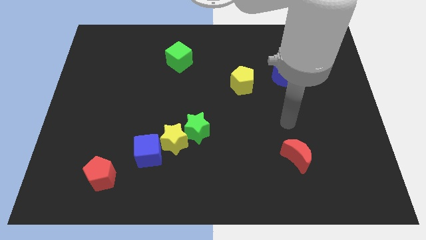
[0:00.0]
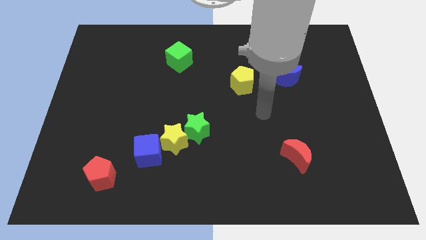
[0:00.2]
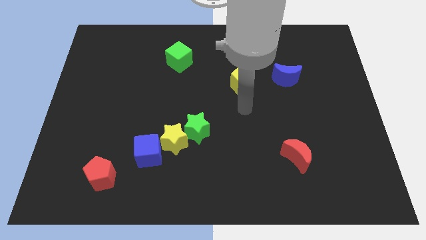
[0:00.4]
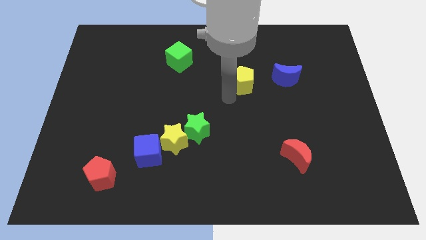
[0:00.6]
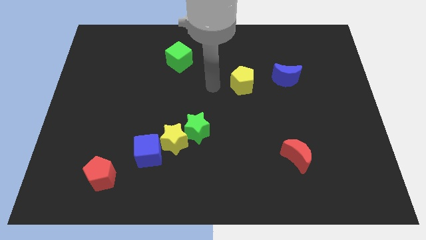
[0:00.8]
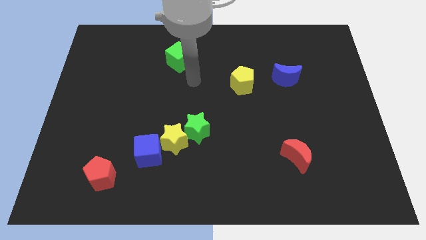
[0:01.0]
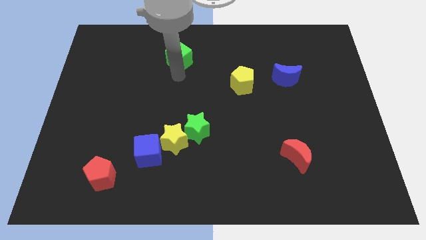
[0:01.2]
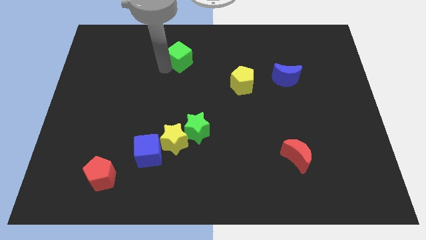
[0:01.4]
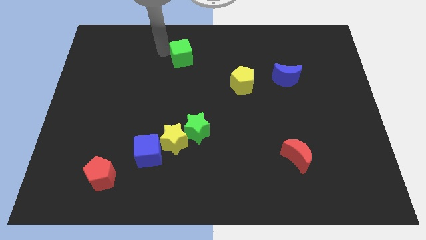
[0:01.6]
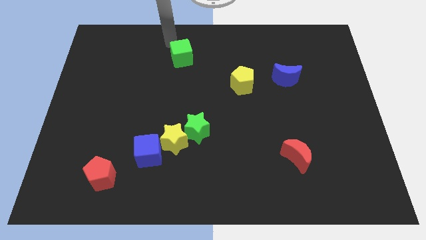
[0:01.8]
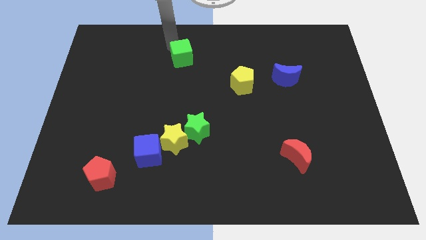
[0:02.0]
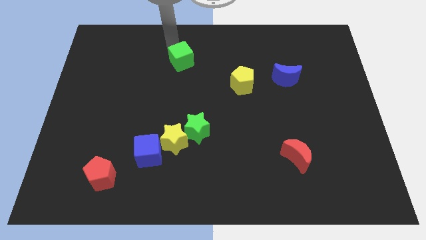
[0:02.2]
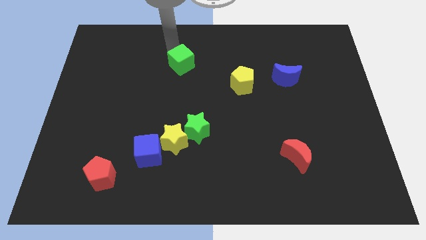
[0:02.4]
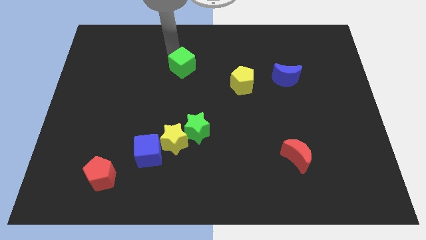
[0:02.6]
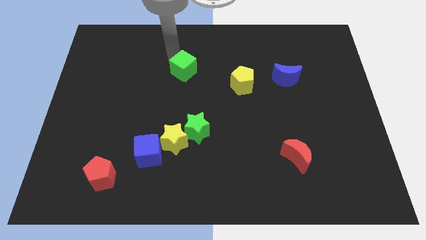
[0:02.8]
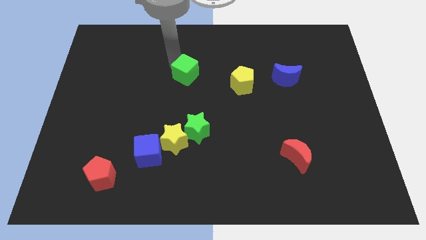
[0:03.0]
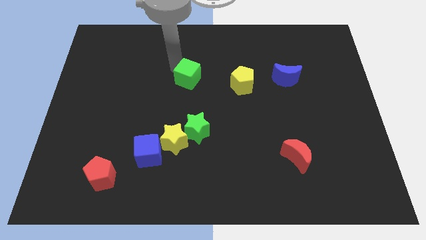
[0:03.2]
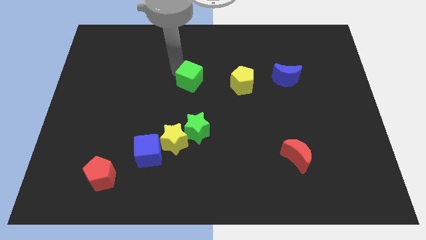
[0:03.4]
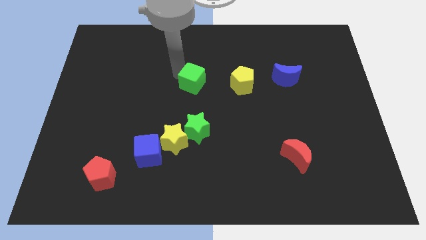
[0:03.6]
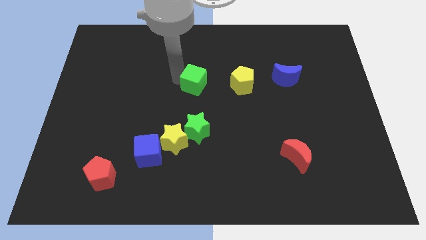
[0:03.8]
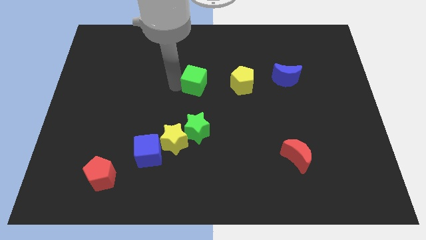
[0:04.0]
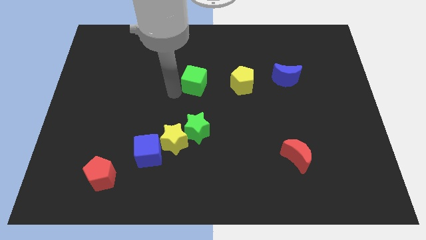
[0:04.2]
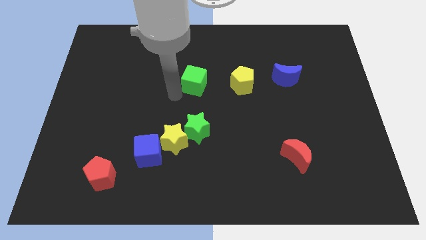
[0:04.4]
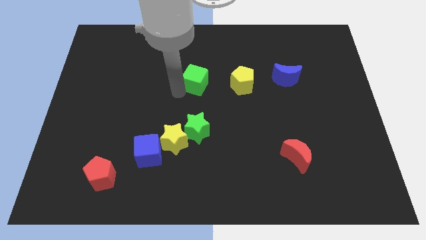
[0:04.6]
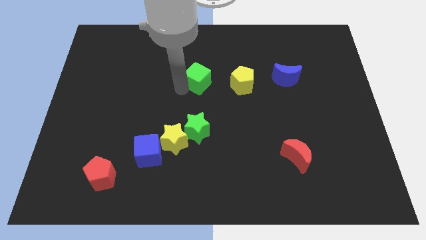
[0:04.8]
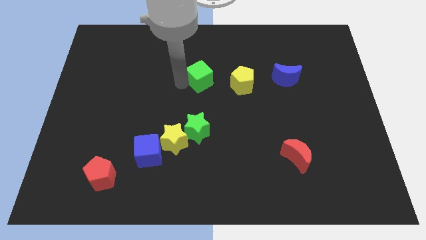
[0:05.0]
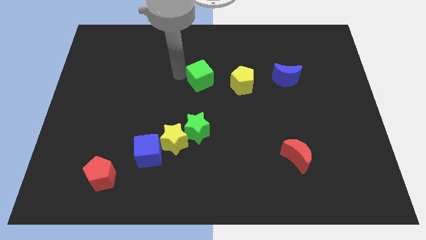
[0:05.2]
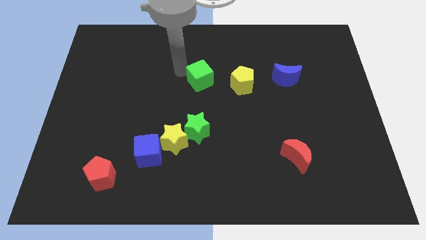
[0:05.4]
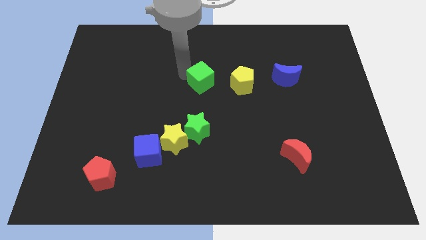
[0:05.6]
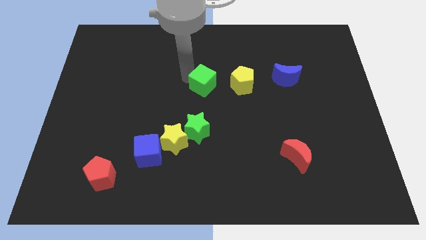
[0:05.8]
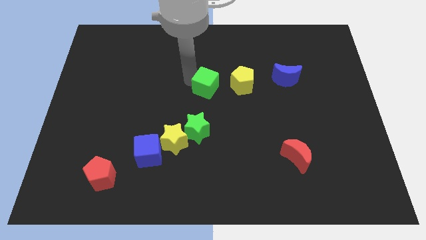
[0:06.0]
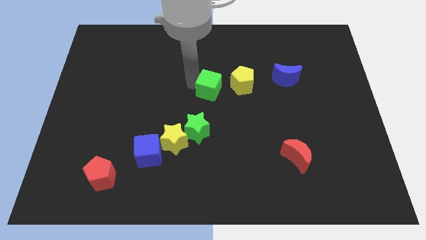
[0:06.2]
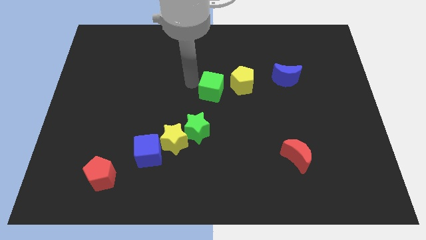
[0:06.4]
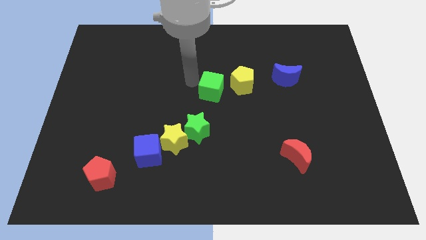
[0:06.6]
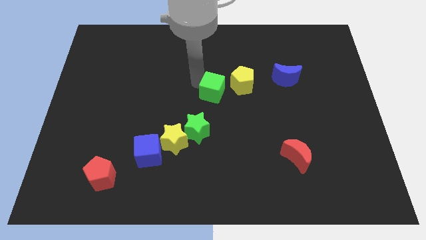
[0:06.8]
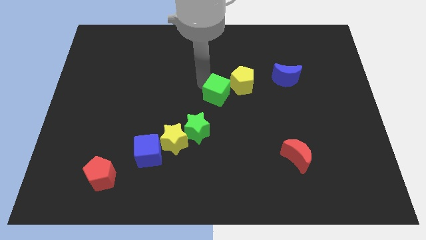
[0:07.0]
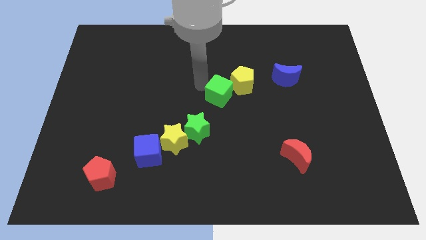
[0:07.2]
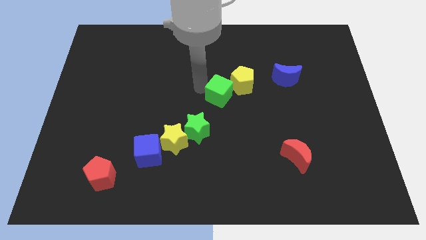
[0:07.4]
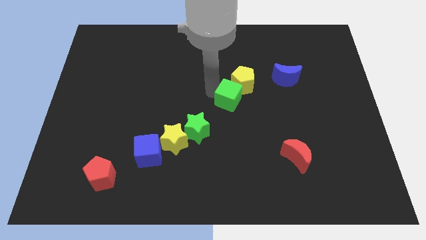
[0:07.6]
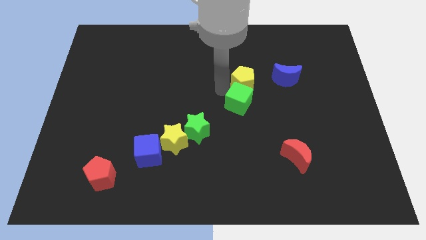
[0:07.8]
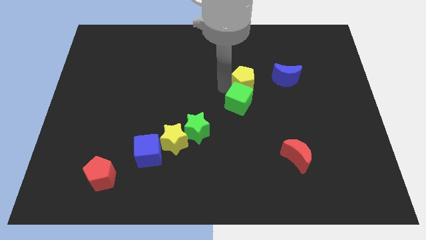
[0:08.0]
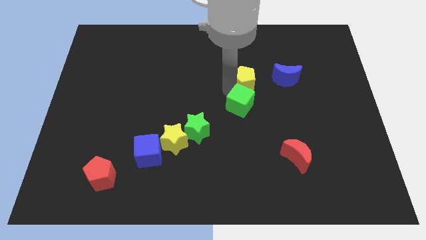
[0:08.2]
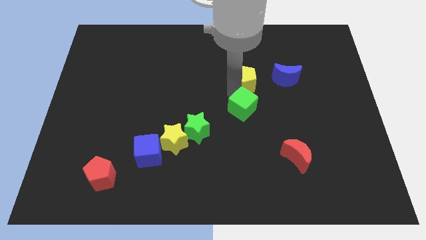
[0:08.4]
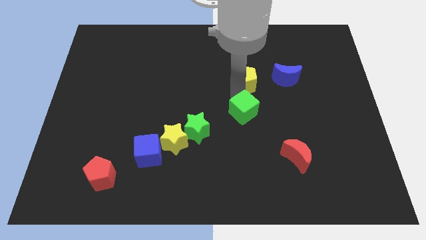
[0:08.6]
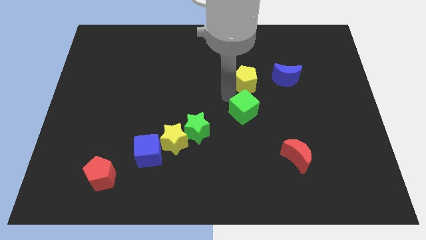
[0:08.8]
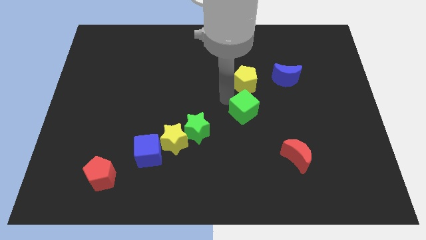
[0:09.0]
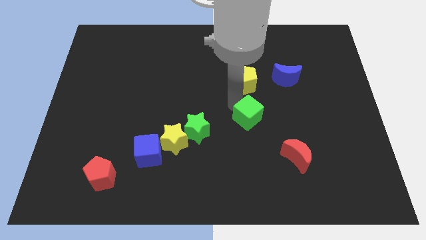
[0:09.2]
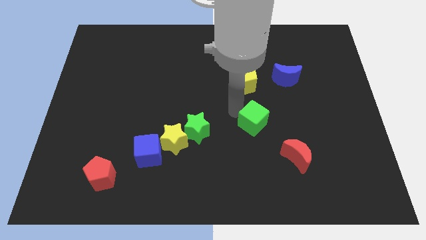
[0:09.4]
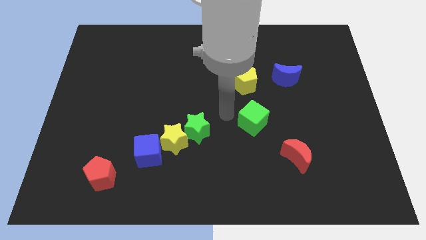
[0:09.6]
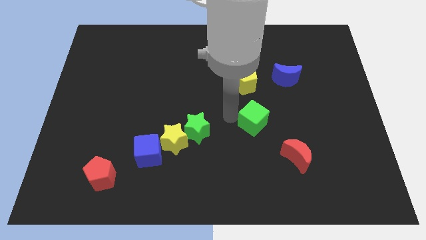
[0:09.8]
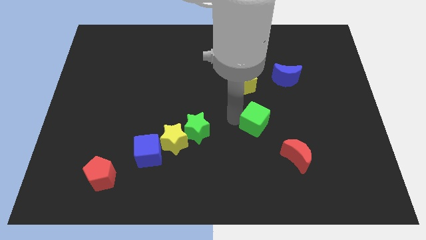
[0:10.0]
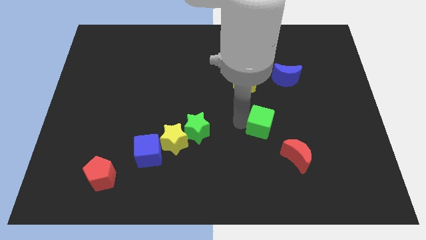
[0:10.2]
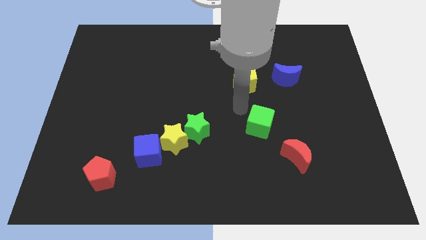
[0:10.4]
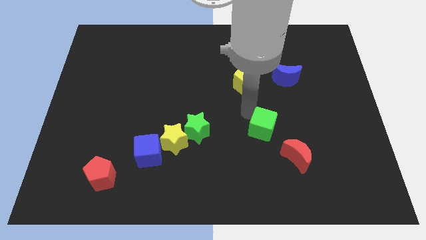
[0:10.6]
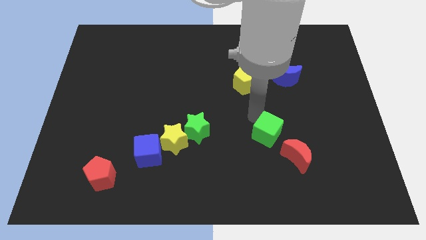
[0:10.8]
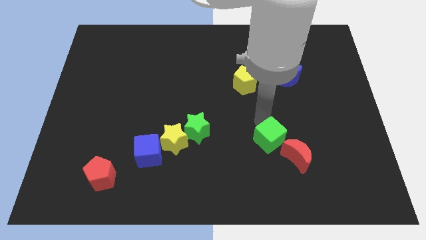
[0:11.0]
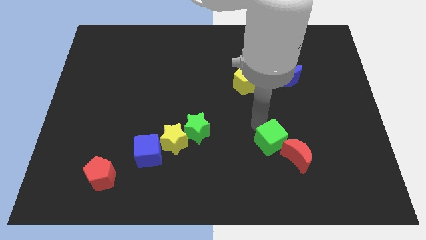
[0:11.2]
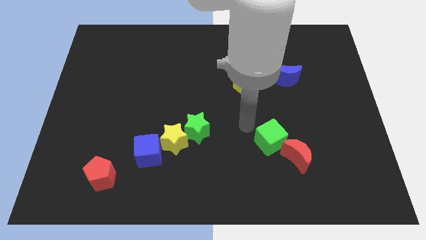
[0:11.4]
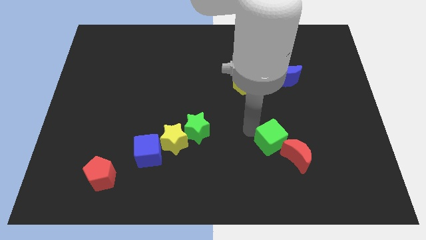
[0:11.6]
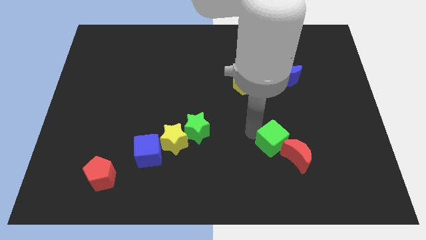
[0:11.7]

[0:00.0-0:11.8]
put the green cube close to the red moon

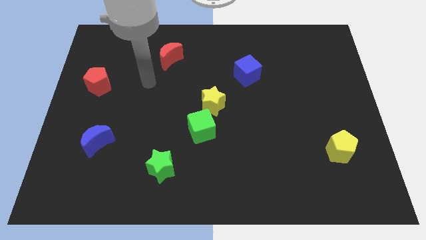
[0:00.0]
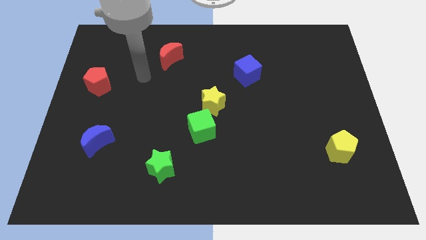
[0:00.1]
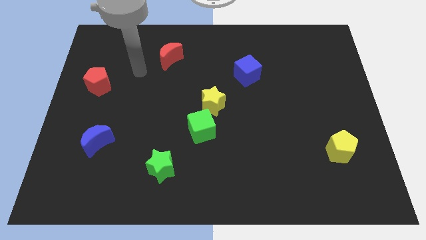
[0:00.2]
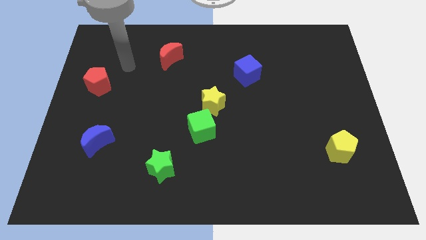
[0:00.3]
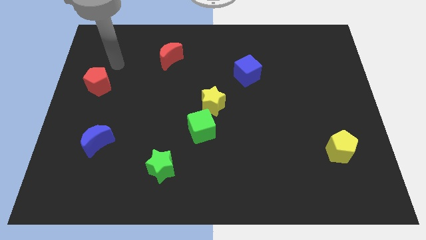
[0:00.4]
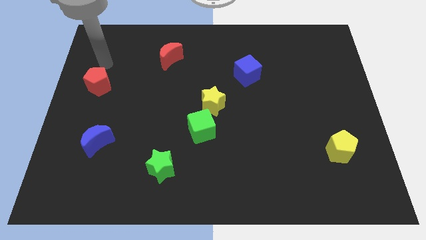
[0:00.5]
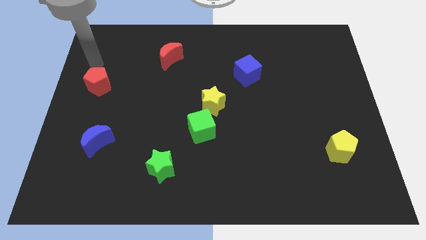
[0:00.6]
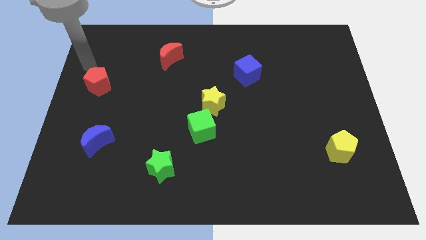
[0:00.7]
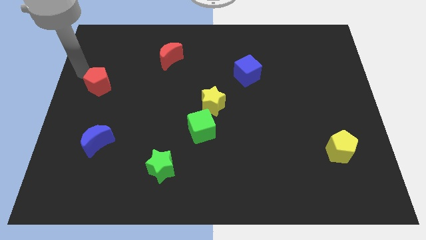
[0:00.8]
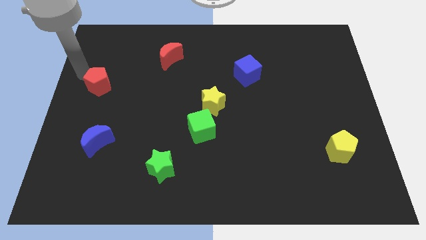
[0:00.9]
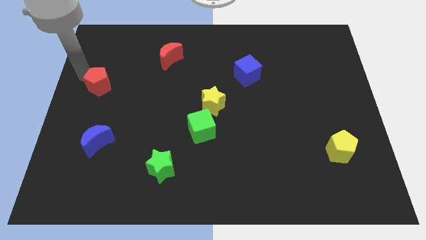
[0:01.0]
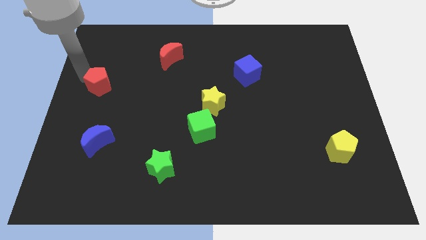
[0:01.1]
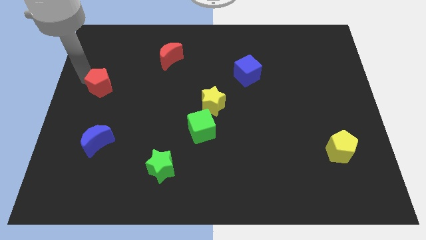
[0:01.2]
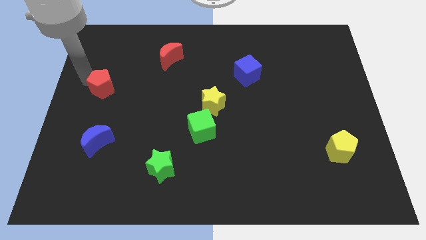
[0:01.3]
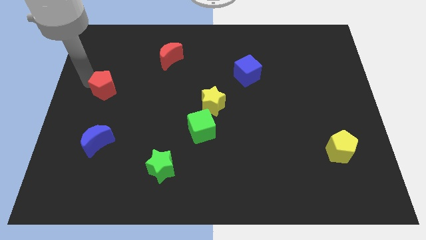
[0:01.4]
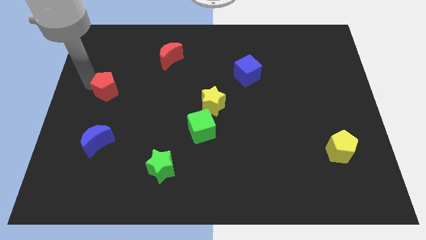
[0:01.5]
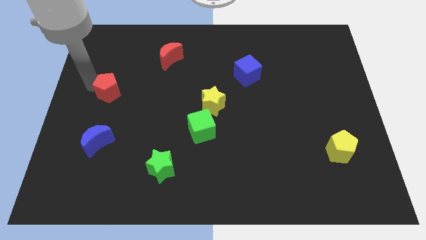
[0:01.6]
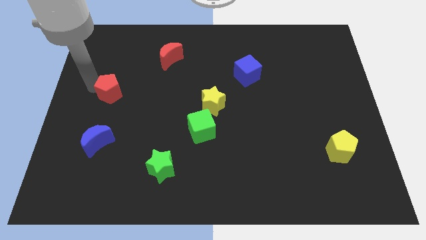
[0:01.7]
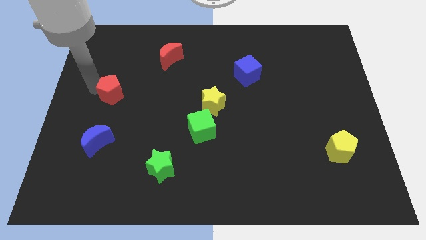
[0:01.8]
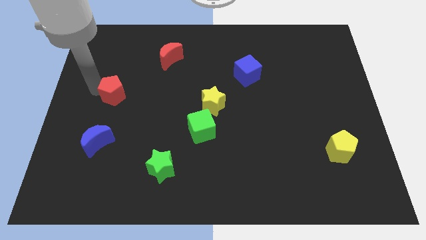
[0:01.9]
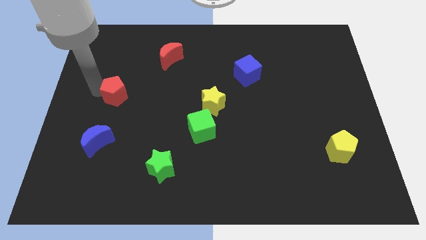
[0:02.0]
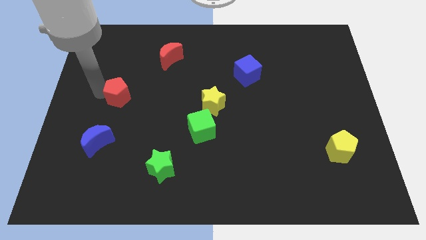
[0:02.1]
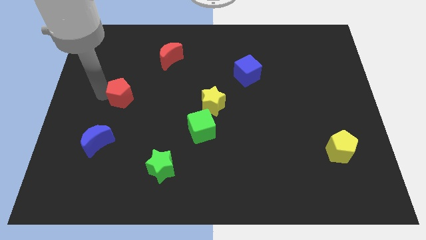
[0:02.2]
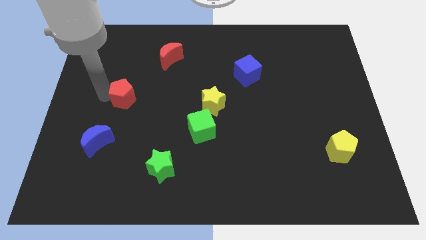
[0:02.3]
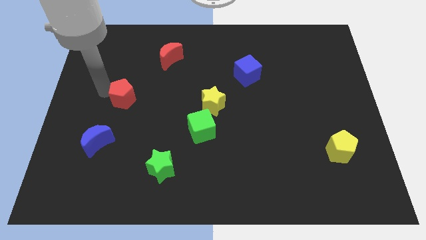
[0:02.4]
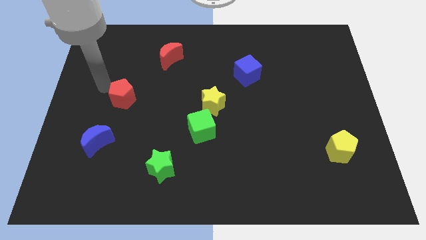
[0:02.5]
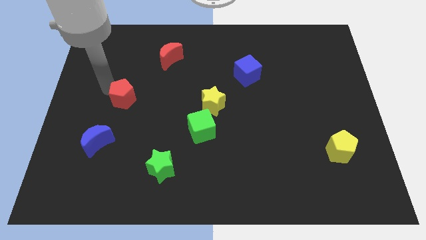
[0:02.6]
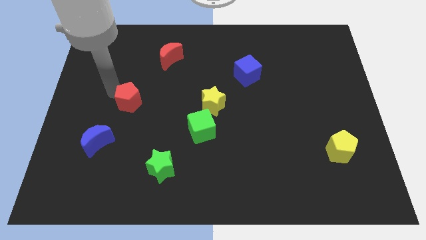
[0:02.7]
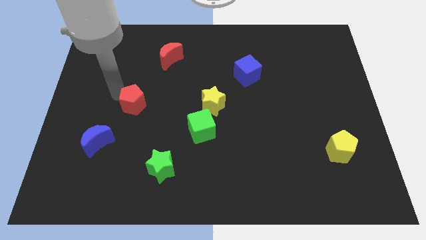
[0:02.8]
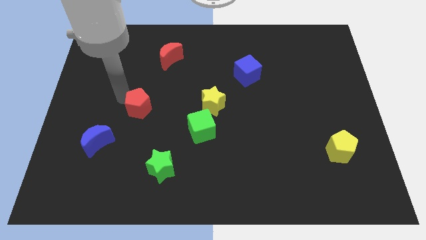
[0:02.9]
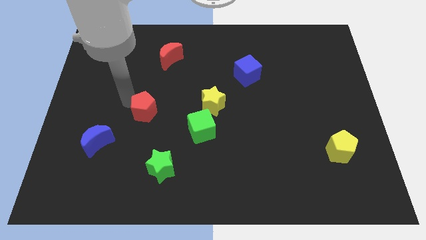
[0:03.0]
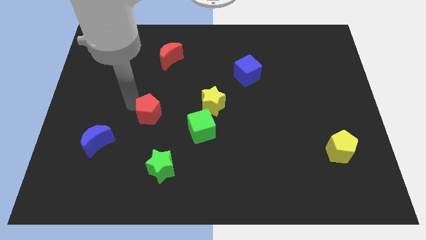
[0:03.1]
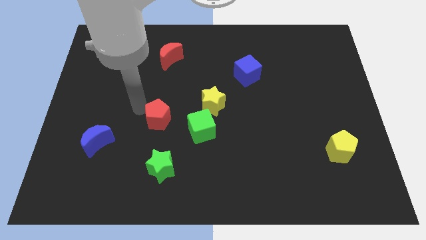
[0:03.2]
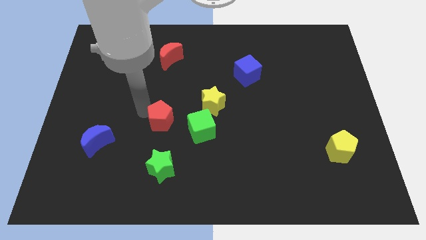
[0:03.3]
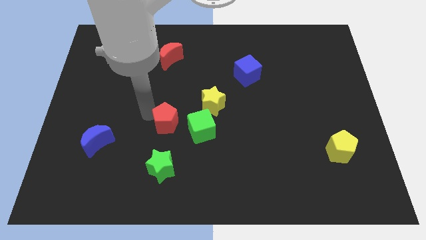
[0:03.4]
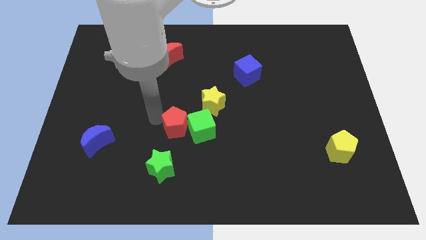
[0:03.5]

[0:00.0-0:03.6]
slide the red pentagon next to the green cube
